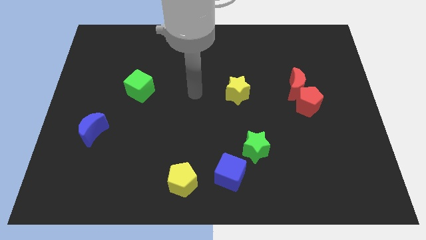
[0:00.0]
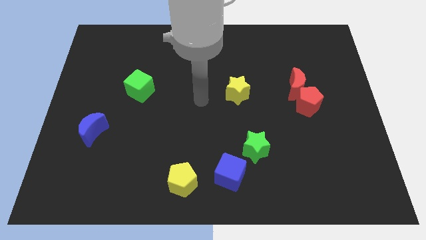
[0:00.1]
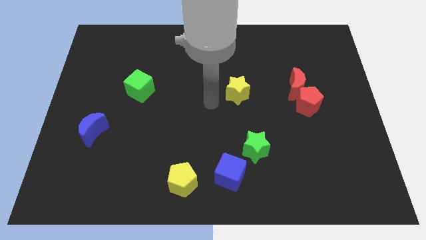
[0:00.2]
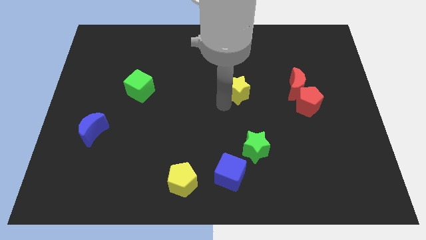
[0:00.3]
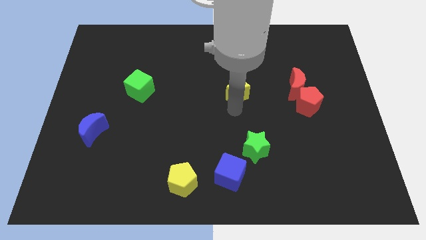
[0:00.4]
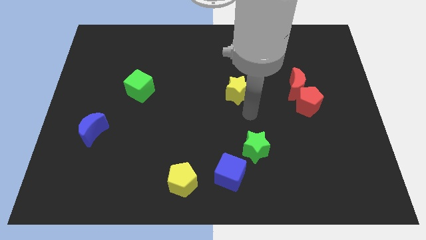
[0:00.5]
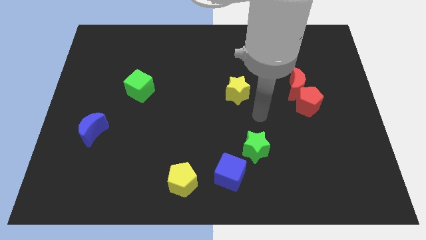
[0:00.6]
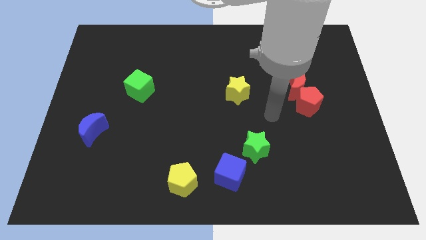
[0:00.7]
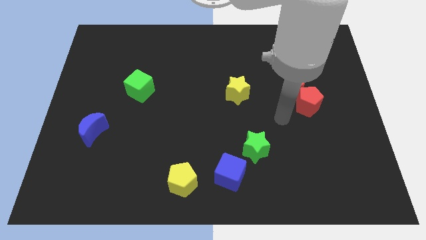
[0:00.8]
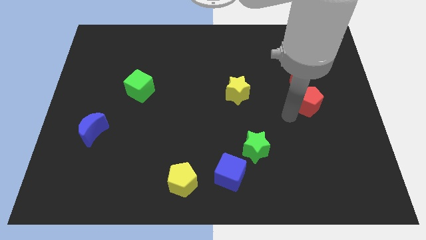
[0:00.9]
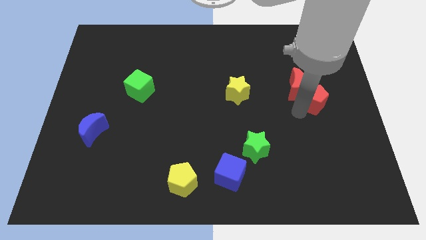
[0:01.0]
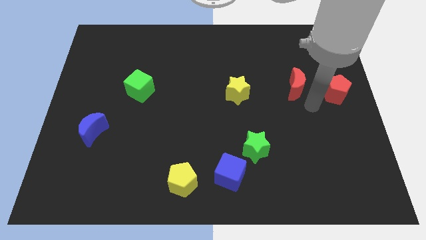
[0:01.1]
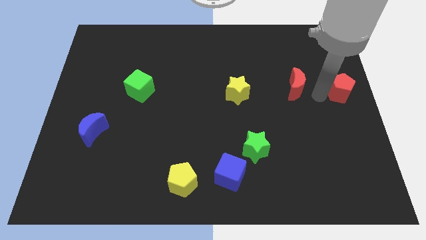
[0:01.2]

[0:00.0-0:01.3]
pull the red moon apart from the red pentagon

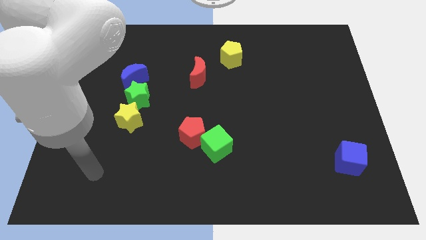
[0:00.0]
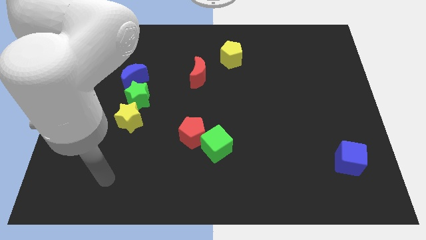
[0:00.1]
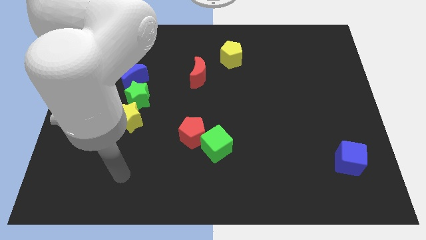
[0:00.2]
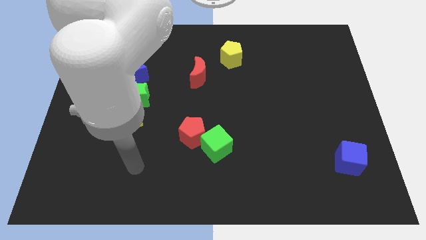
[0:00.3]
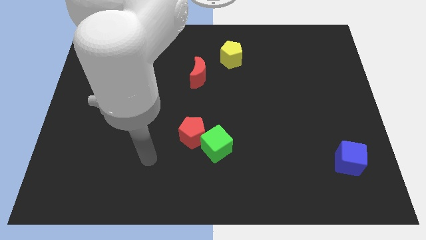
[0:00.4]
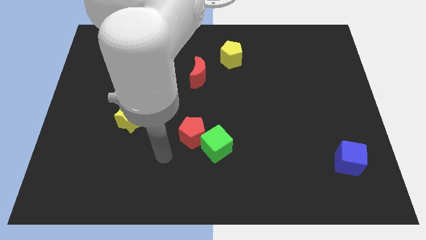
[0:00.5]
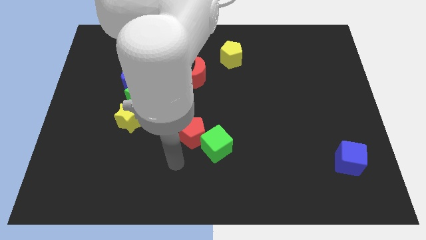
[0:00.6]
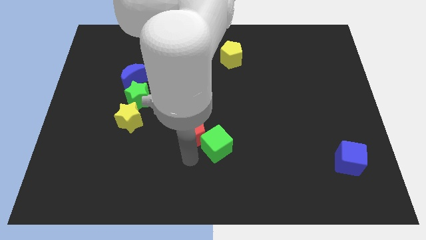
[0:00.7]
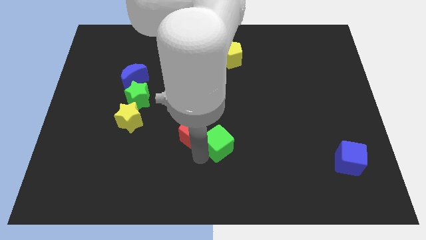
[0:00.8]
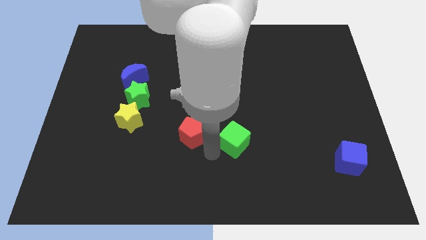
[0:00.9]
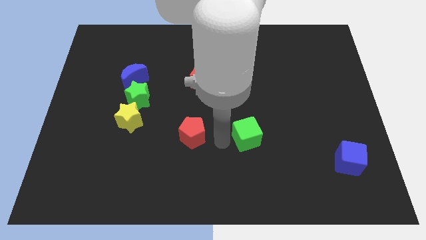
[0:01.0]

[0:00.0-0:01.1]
separate the red pentagon from the green cube

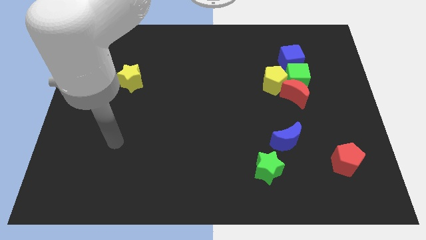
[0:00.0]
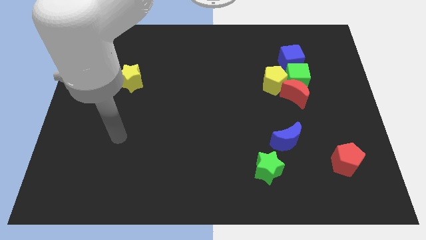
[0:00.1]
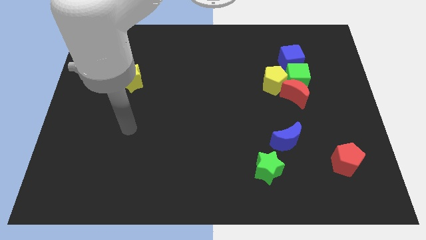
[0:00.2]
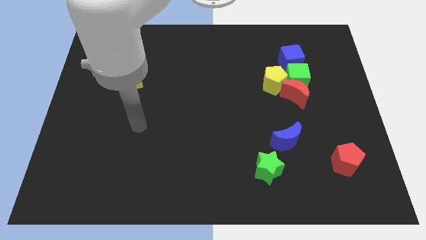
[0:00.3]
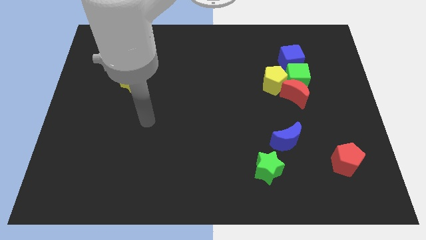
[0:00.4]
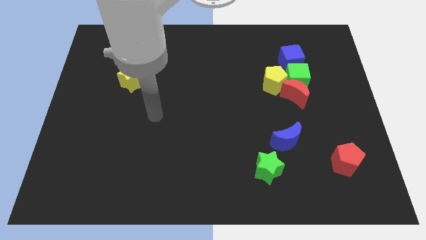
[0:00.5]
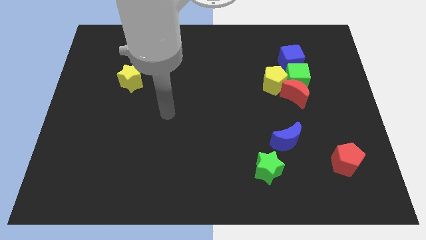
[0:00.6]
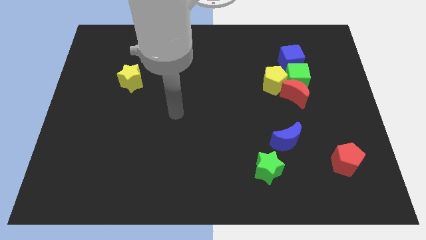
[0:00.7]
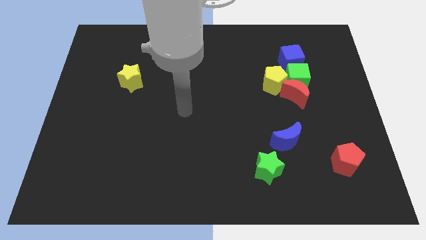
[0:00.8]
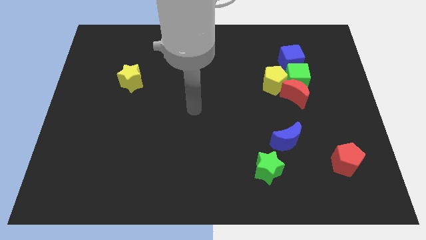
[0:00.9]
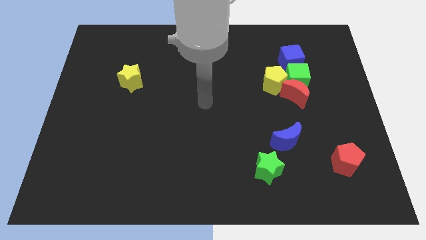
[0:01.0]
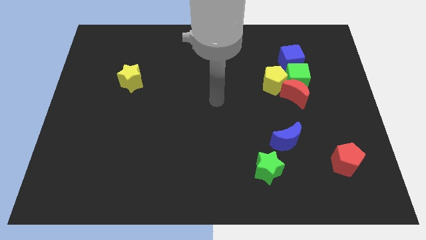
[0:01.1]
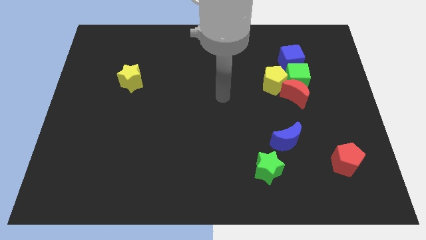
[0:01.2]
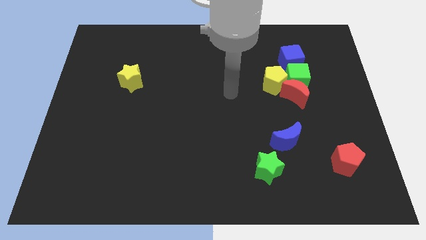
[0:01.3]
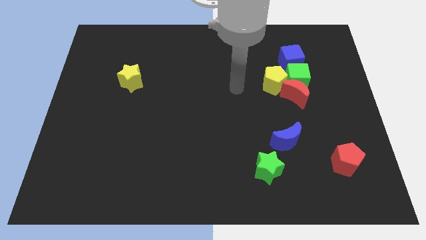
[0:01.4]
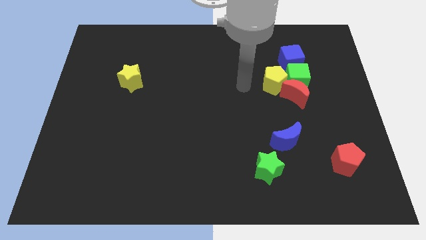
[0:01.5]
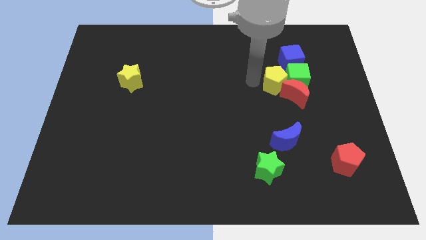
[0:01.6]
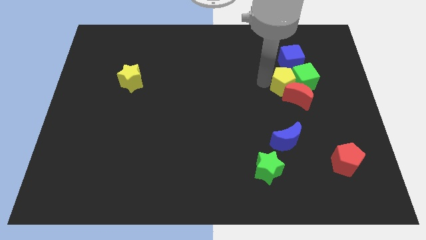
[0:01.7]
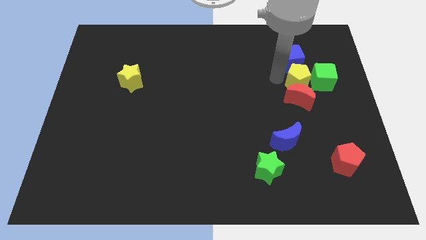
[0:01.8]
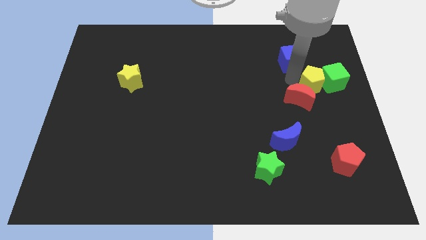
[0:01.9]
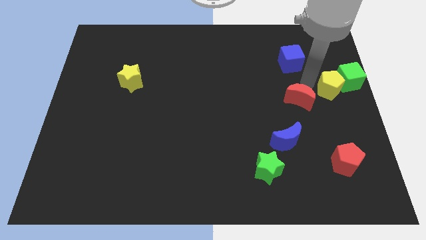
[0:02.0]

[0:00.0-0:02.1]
separate the red moon from the green cube and yellow pentagon

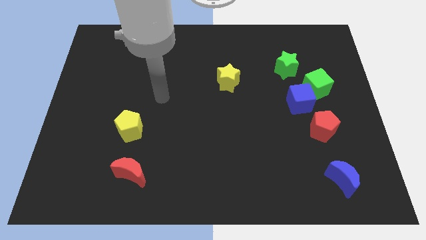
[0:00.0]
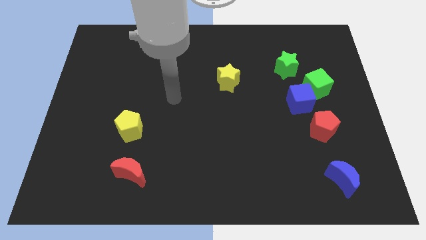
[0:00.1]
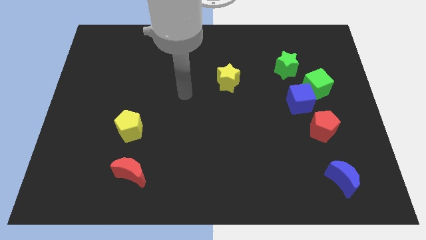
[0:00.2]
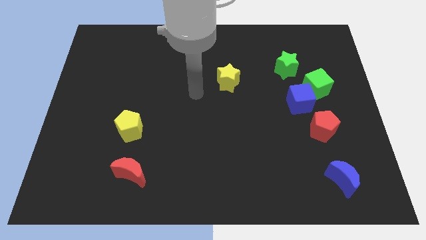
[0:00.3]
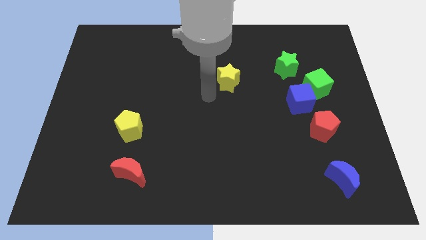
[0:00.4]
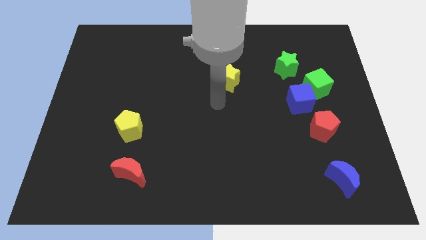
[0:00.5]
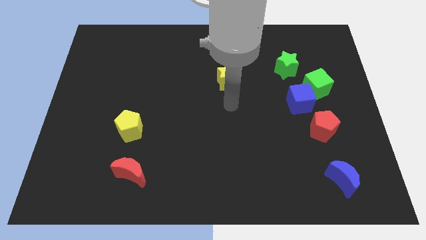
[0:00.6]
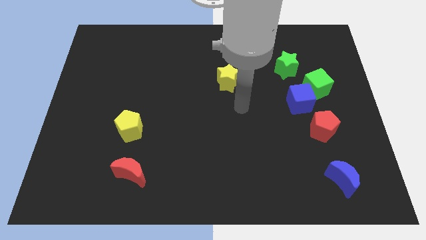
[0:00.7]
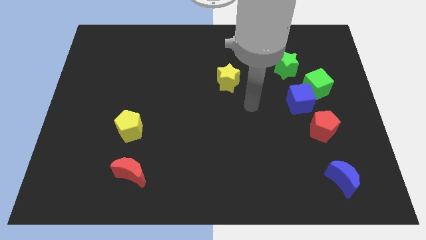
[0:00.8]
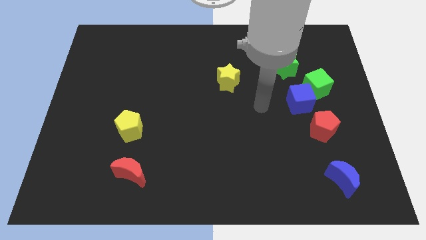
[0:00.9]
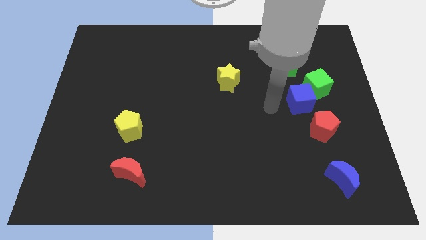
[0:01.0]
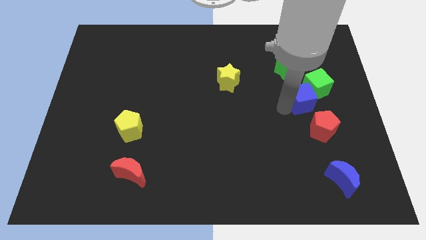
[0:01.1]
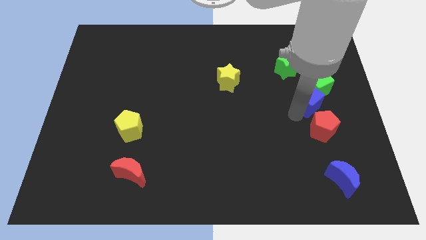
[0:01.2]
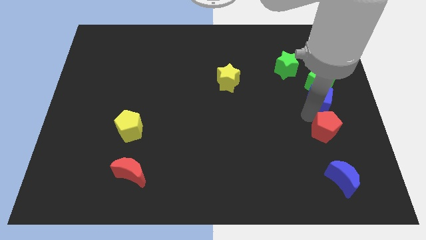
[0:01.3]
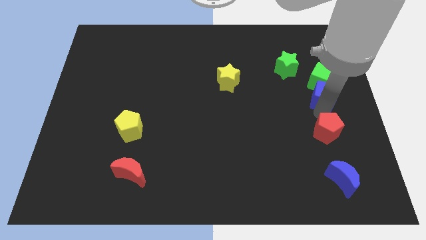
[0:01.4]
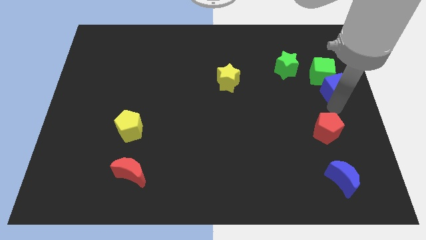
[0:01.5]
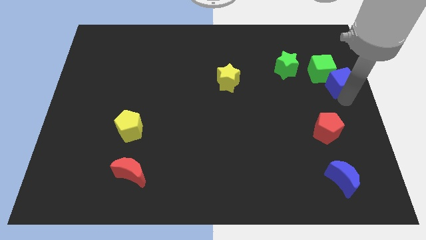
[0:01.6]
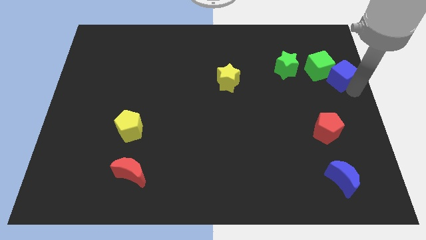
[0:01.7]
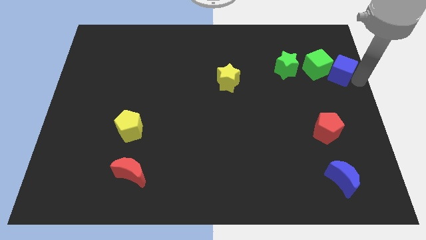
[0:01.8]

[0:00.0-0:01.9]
pull the blue cube apart from the green cube and red pentagon

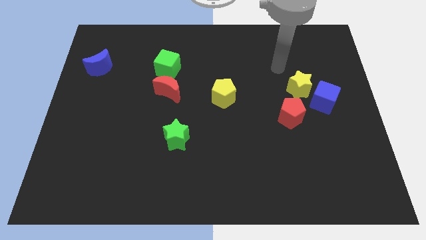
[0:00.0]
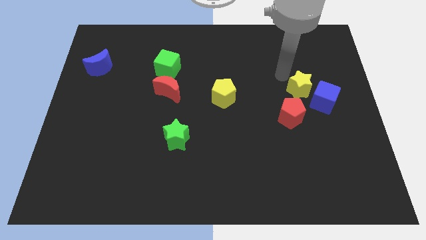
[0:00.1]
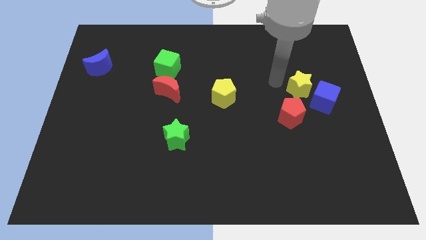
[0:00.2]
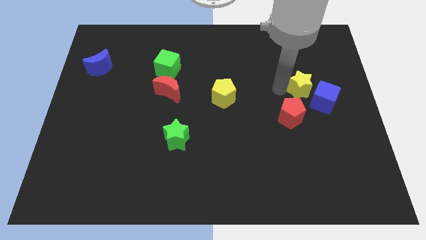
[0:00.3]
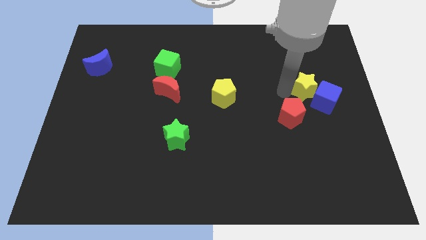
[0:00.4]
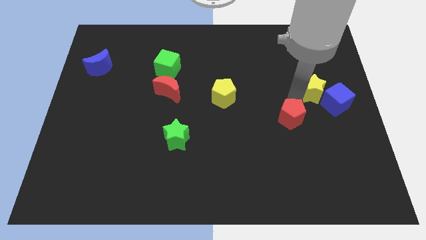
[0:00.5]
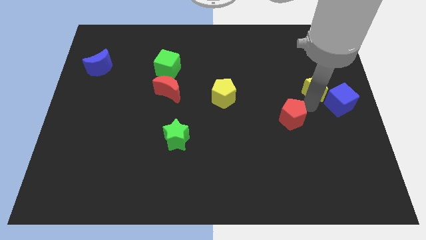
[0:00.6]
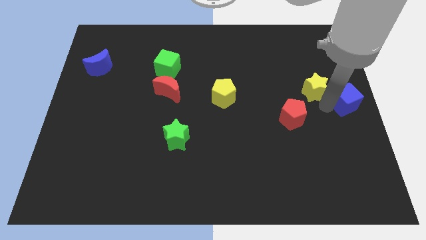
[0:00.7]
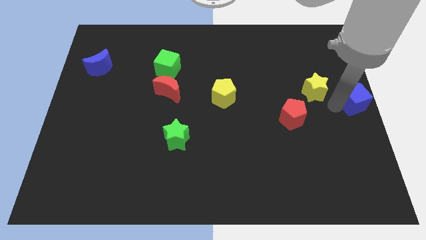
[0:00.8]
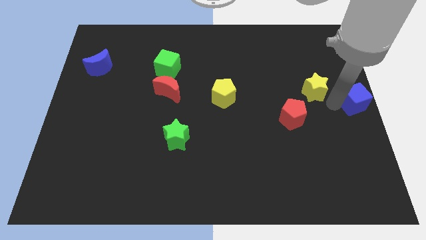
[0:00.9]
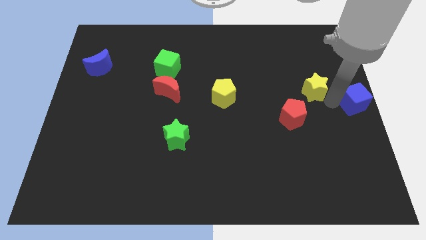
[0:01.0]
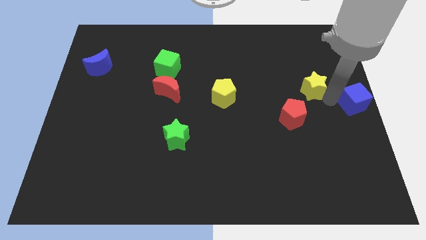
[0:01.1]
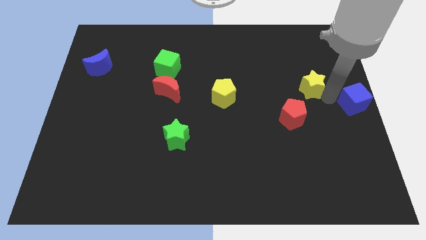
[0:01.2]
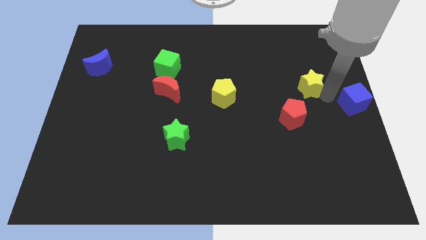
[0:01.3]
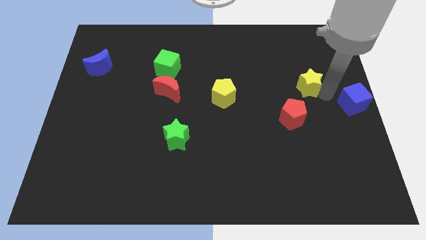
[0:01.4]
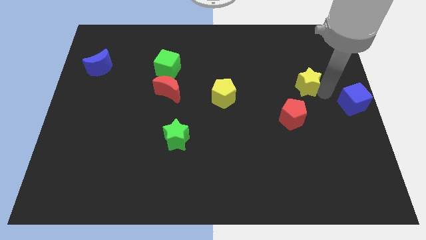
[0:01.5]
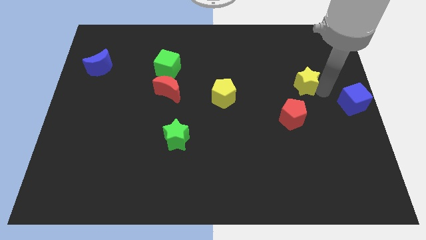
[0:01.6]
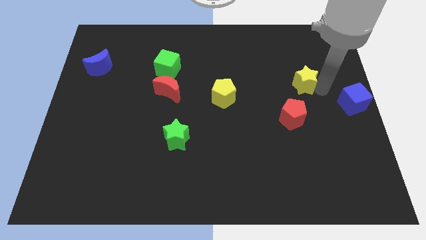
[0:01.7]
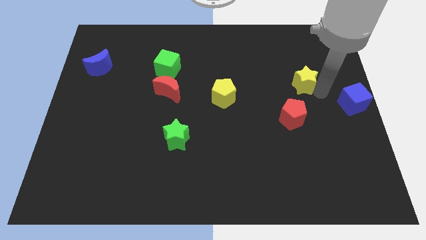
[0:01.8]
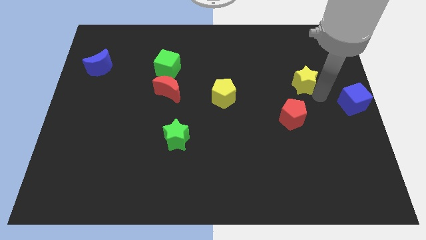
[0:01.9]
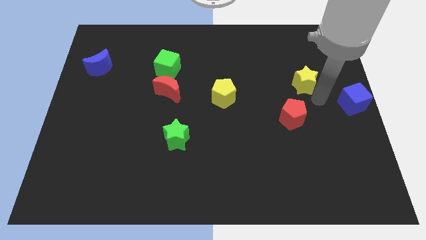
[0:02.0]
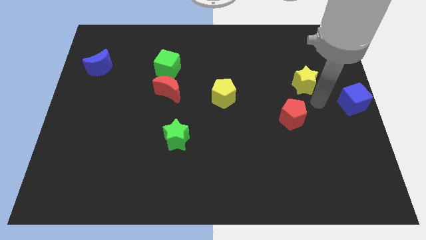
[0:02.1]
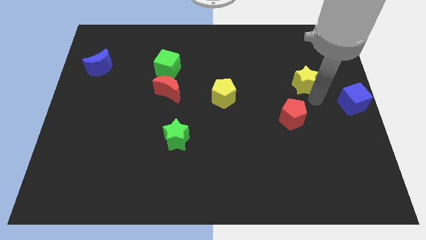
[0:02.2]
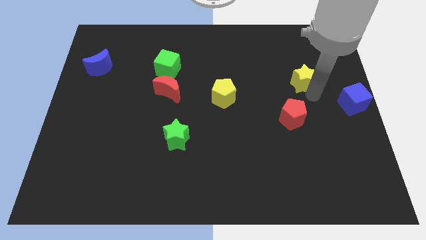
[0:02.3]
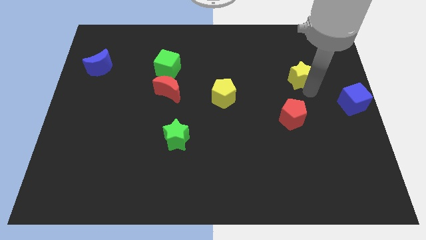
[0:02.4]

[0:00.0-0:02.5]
move the yellow star away from the blue cube and red pentagon

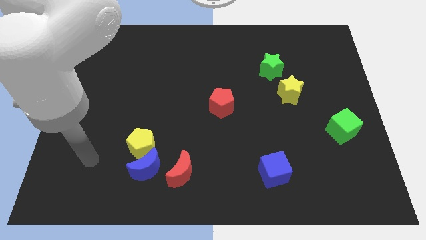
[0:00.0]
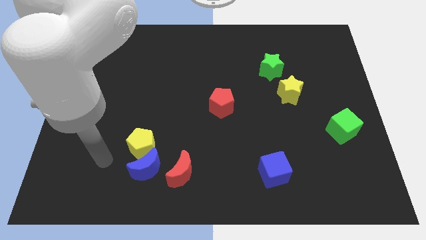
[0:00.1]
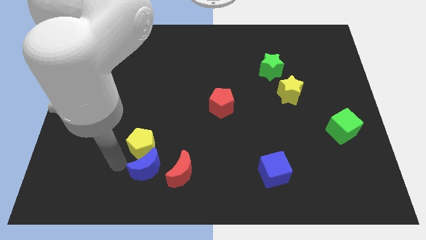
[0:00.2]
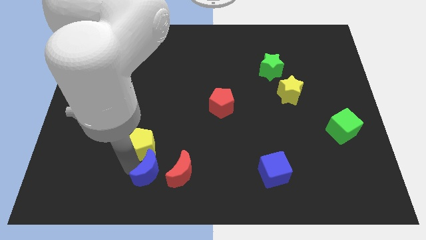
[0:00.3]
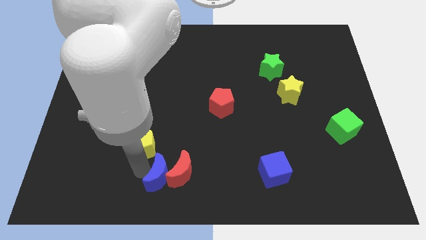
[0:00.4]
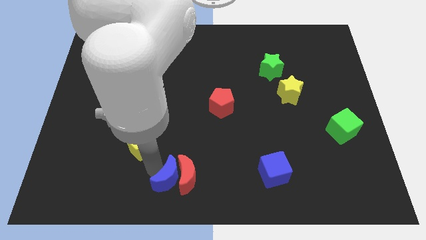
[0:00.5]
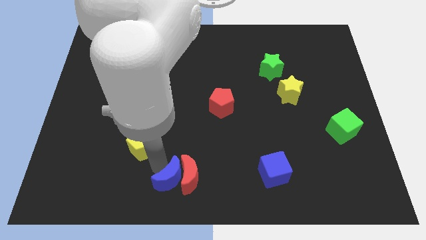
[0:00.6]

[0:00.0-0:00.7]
separate the yellow pentagon from the blue moon
